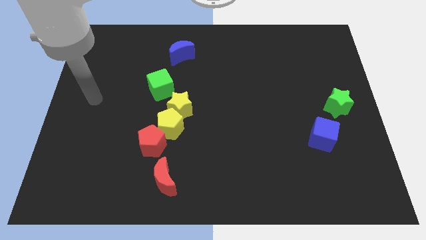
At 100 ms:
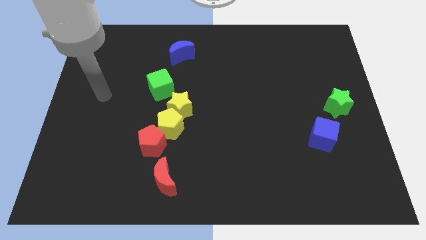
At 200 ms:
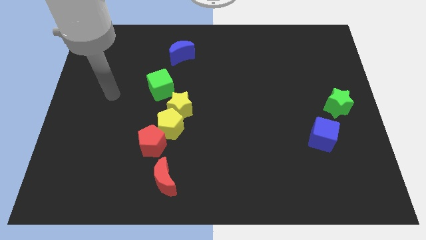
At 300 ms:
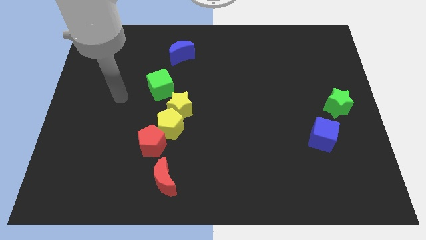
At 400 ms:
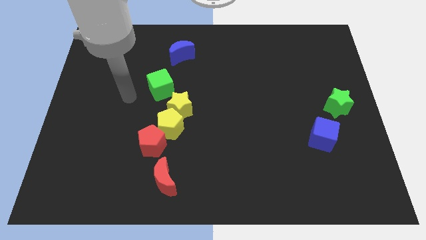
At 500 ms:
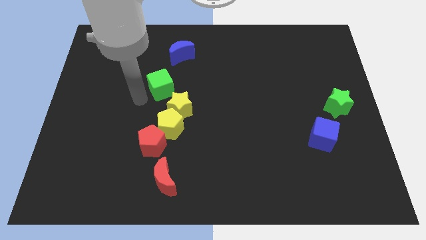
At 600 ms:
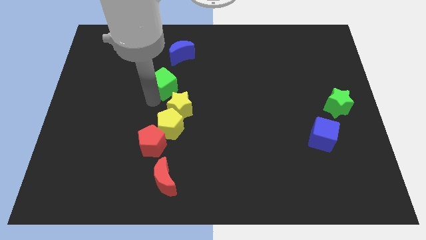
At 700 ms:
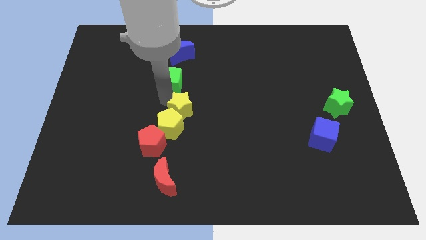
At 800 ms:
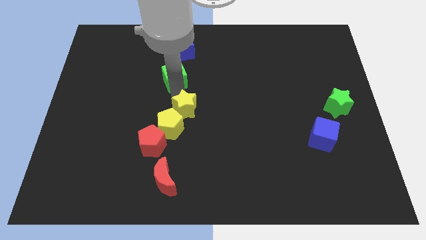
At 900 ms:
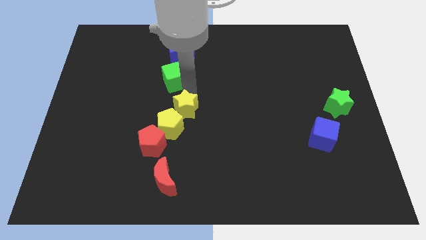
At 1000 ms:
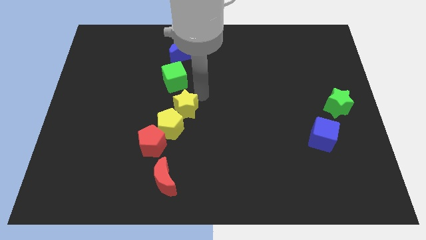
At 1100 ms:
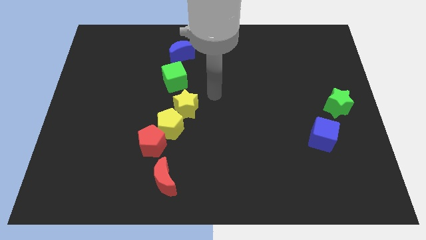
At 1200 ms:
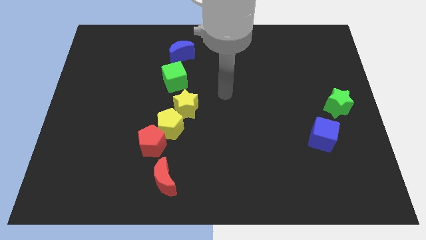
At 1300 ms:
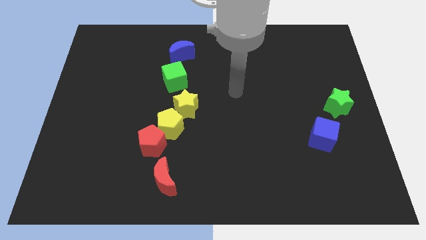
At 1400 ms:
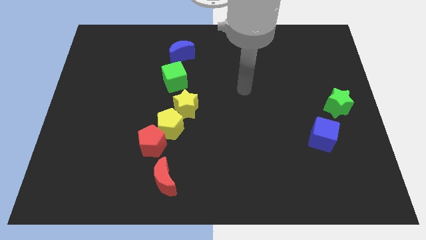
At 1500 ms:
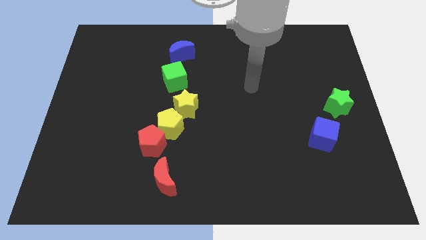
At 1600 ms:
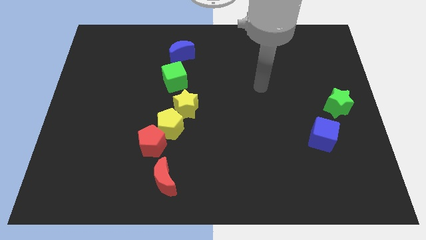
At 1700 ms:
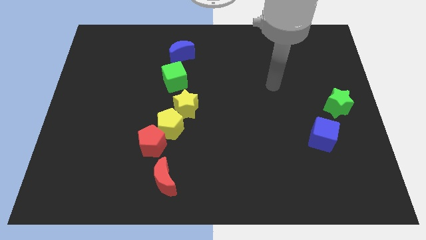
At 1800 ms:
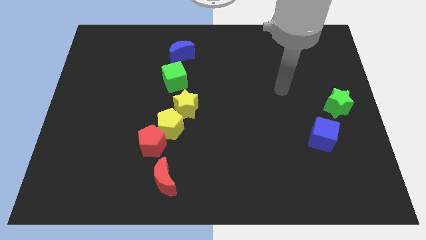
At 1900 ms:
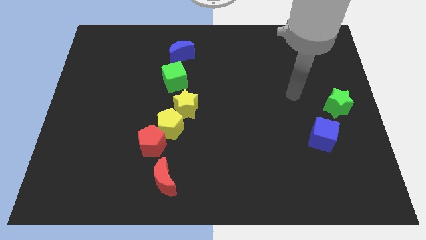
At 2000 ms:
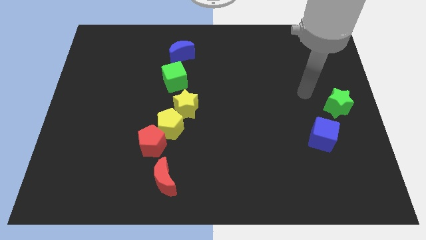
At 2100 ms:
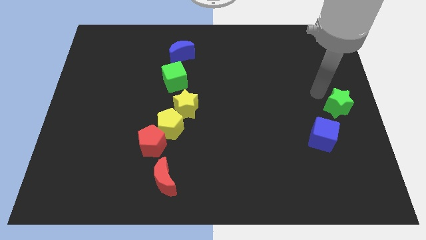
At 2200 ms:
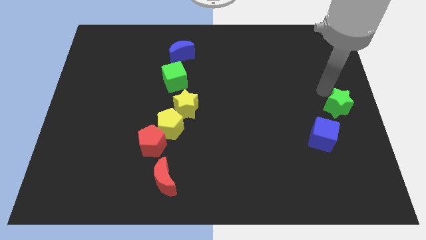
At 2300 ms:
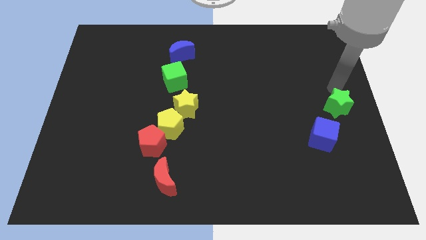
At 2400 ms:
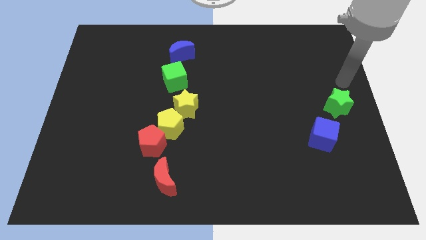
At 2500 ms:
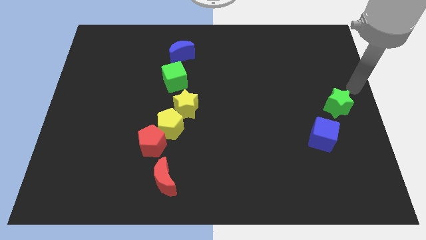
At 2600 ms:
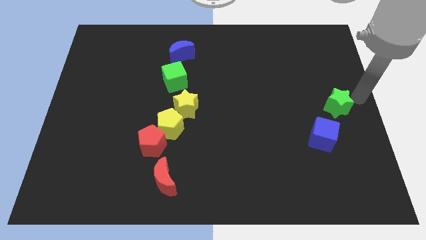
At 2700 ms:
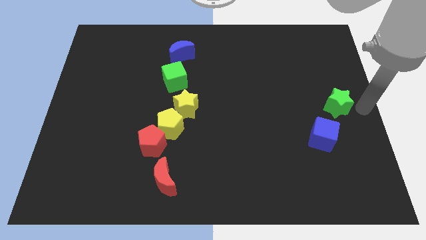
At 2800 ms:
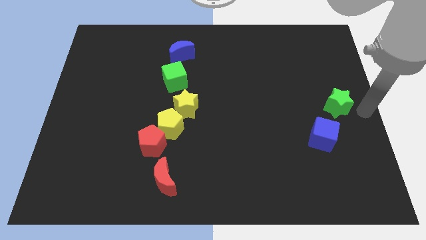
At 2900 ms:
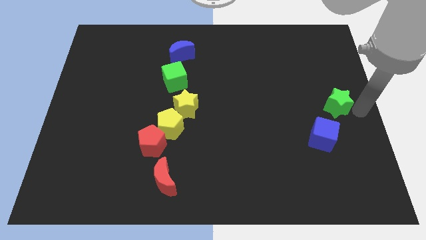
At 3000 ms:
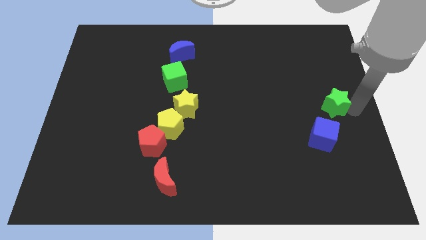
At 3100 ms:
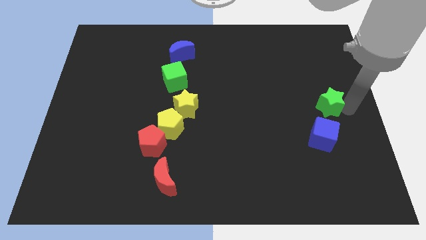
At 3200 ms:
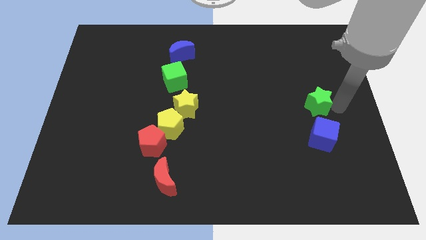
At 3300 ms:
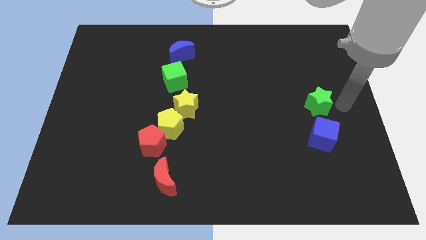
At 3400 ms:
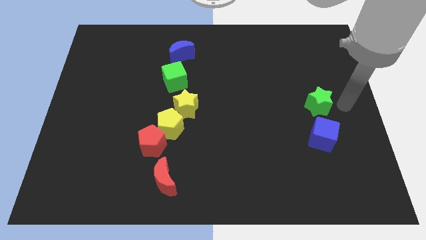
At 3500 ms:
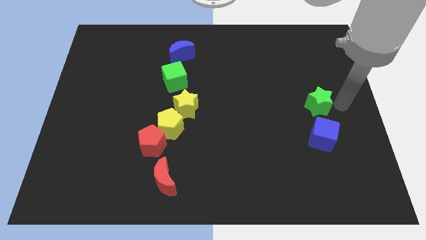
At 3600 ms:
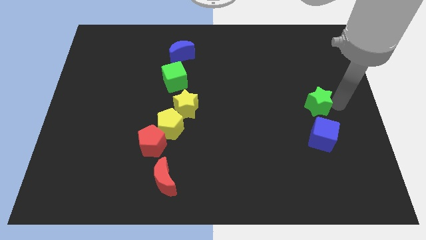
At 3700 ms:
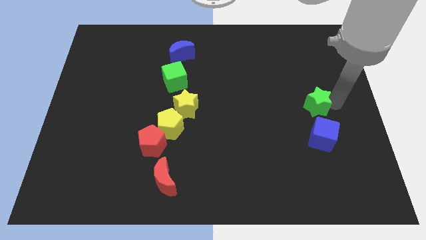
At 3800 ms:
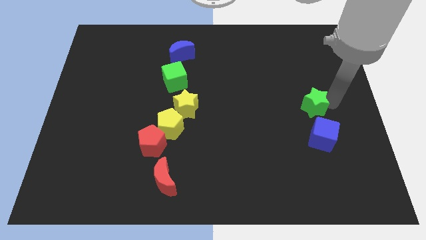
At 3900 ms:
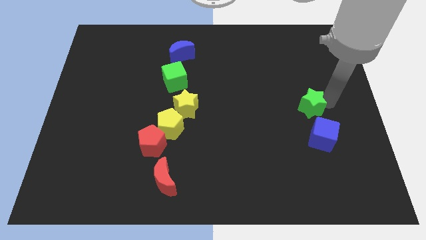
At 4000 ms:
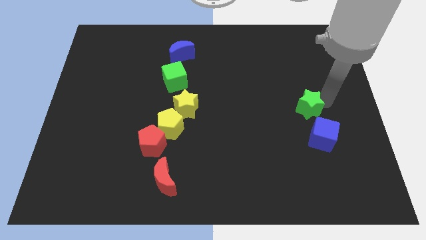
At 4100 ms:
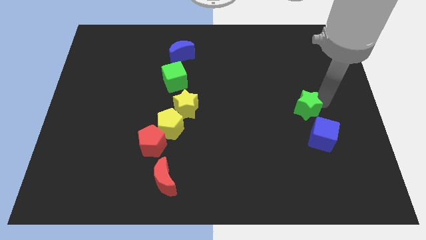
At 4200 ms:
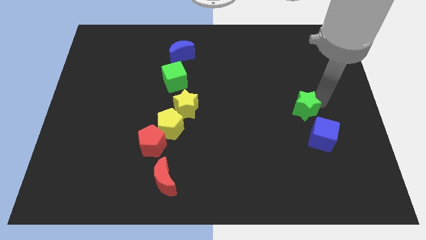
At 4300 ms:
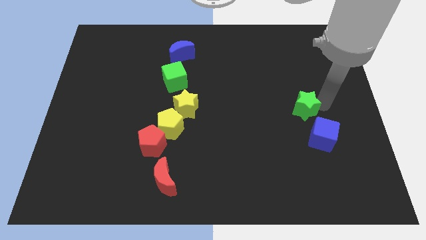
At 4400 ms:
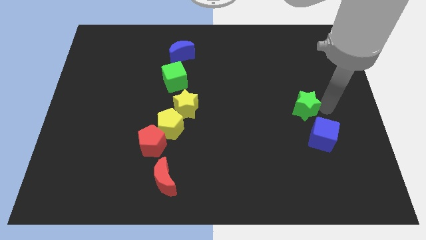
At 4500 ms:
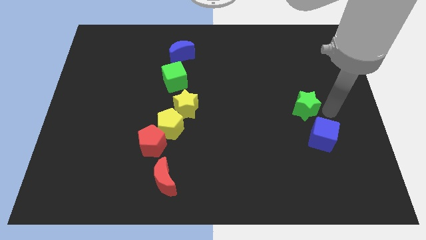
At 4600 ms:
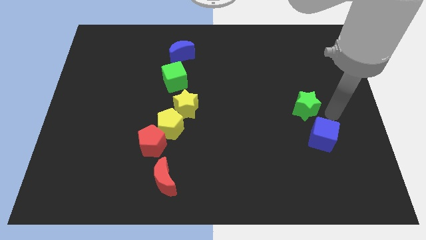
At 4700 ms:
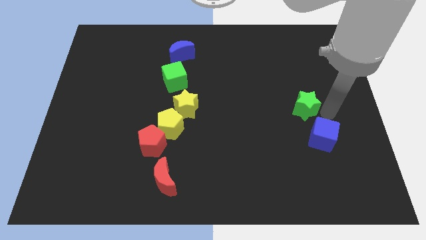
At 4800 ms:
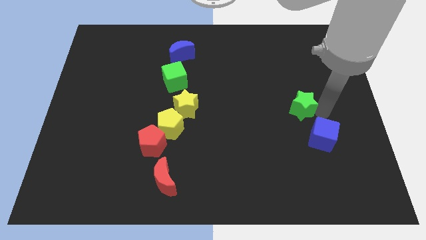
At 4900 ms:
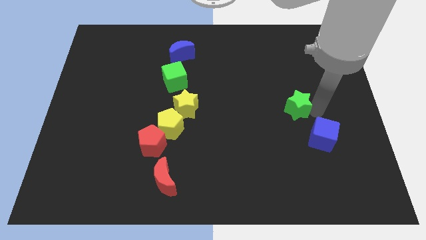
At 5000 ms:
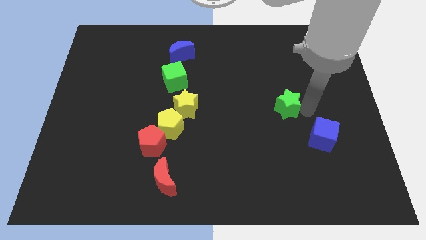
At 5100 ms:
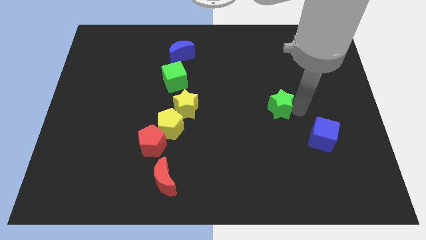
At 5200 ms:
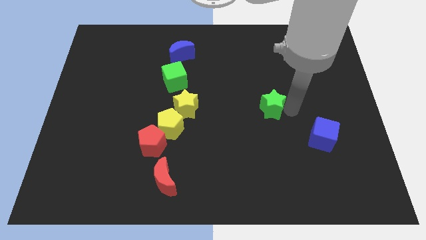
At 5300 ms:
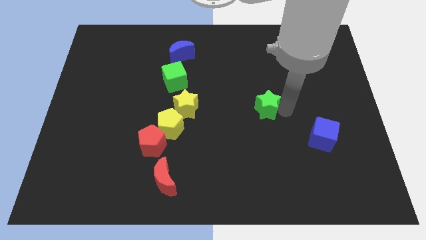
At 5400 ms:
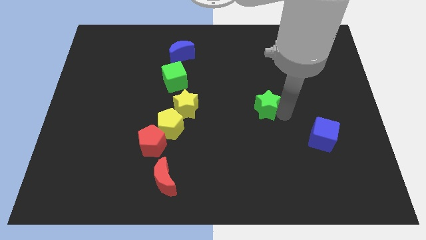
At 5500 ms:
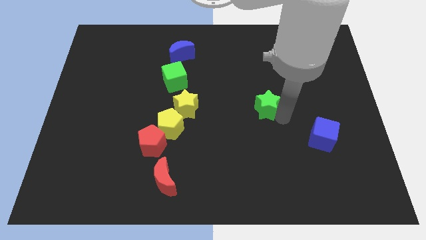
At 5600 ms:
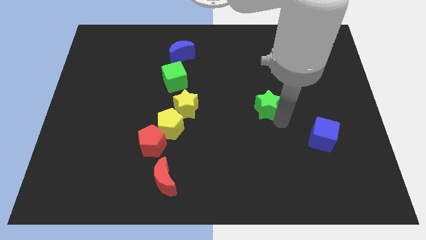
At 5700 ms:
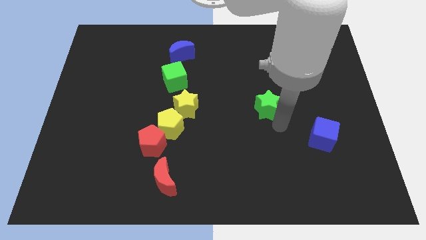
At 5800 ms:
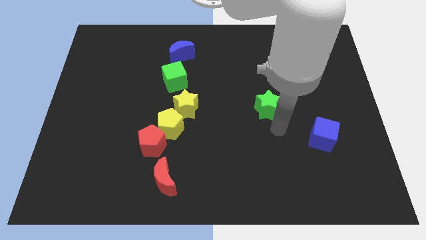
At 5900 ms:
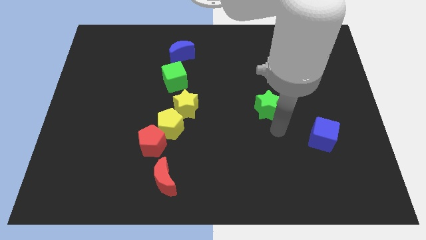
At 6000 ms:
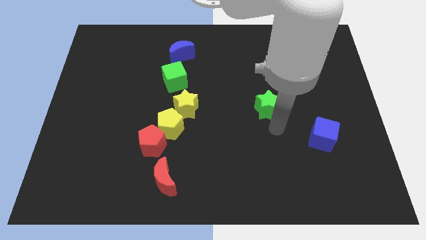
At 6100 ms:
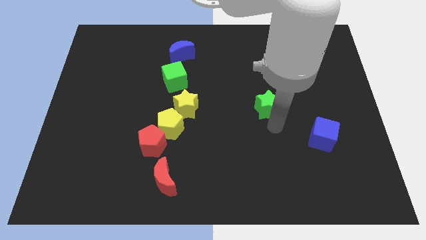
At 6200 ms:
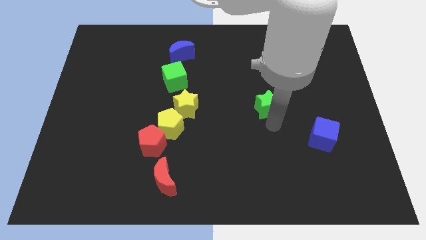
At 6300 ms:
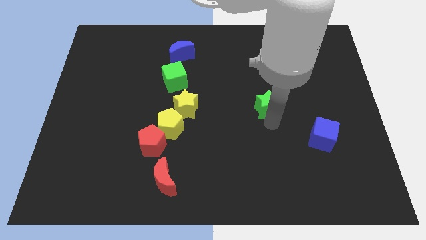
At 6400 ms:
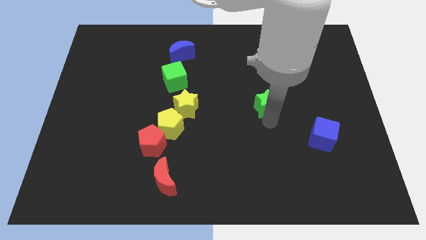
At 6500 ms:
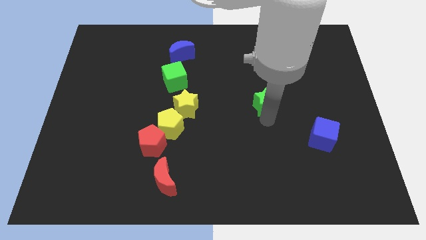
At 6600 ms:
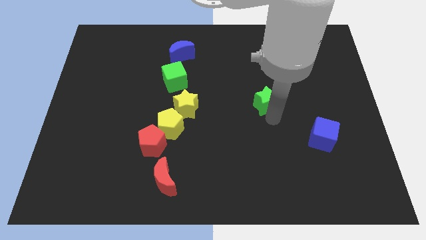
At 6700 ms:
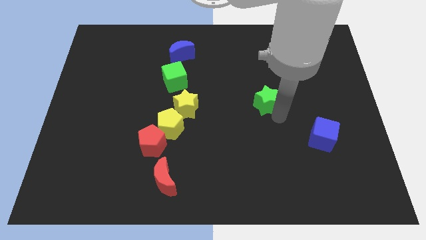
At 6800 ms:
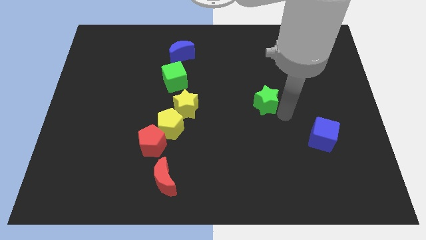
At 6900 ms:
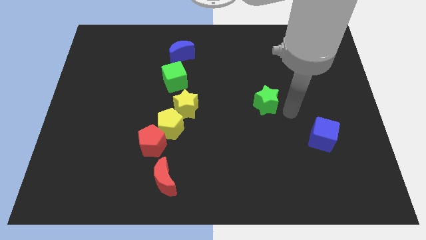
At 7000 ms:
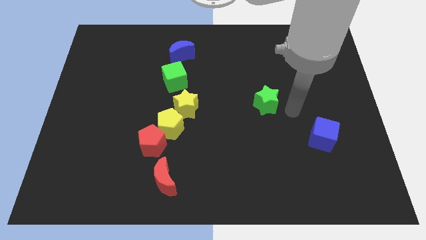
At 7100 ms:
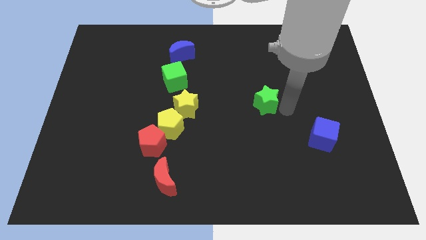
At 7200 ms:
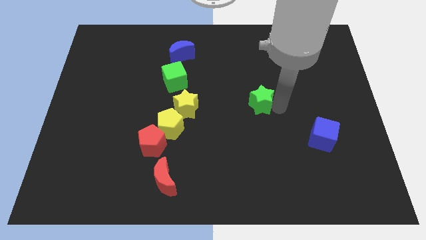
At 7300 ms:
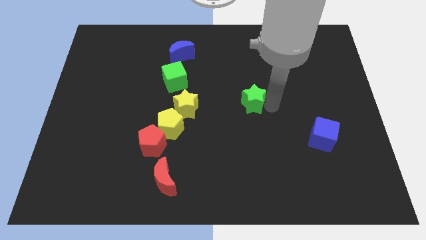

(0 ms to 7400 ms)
move the green star left

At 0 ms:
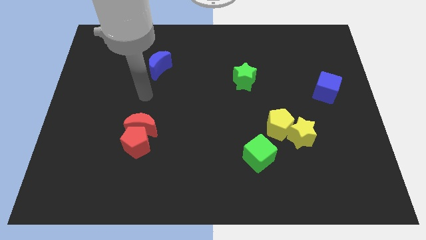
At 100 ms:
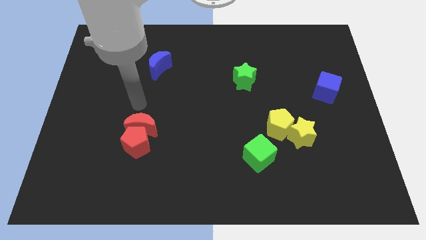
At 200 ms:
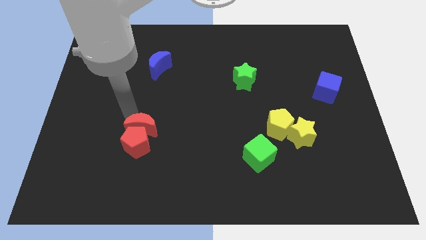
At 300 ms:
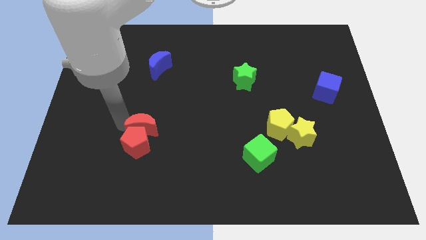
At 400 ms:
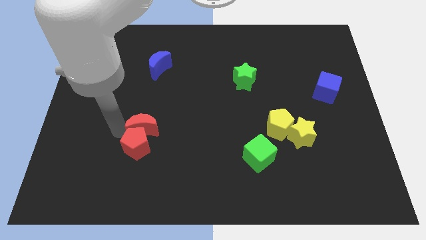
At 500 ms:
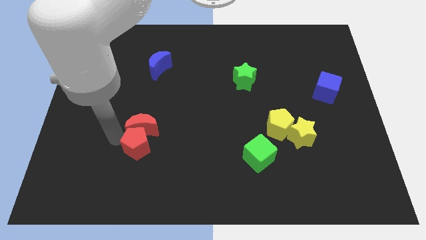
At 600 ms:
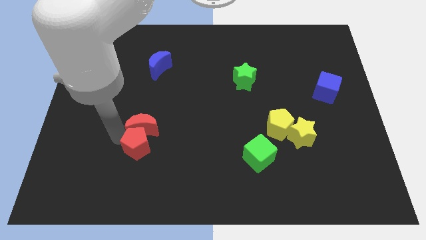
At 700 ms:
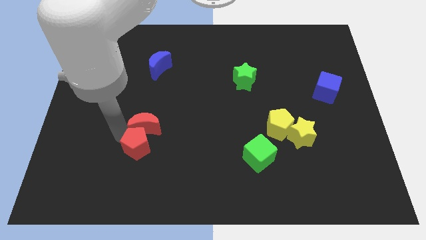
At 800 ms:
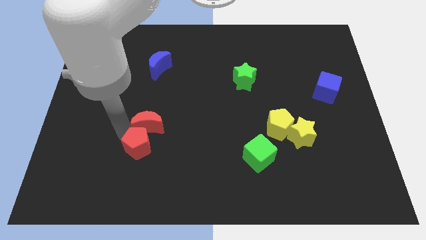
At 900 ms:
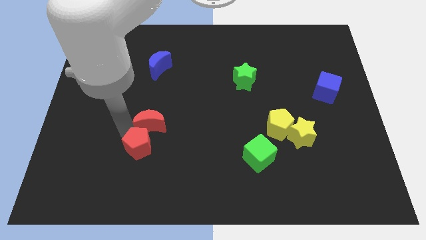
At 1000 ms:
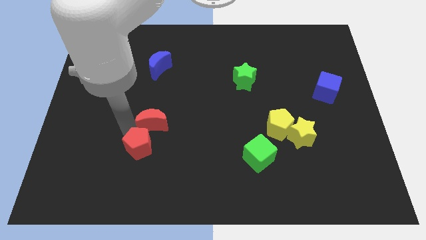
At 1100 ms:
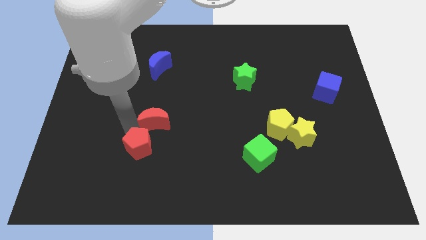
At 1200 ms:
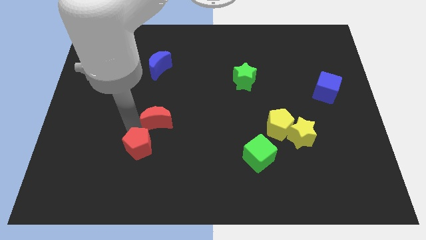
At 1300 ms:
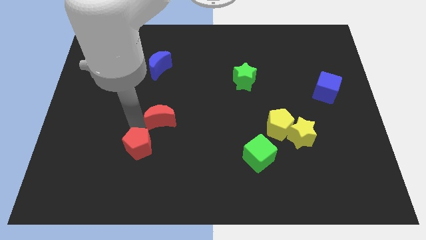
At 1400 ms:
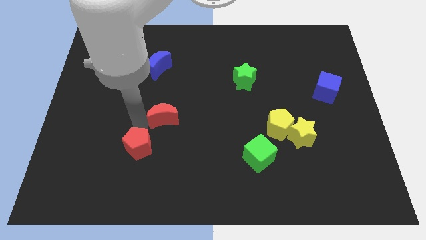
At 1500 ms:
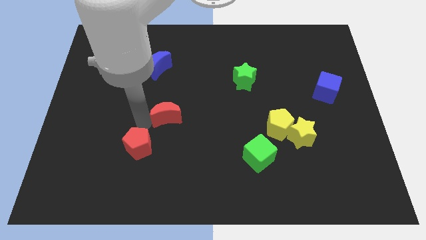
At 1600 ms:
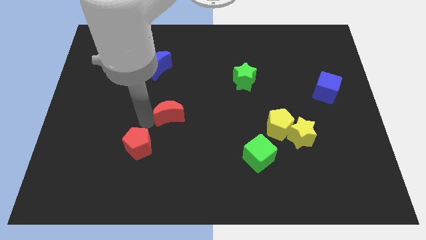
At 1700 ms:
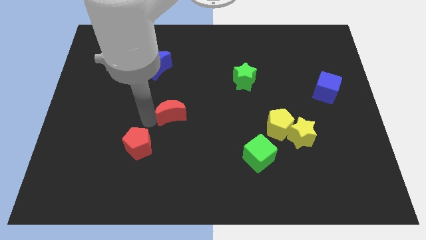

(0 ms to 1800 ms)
slightly move the red moon upwards and then right
